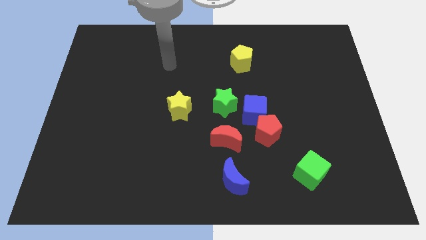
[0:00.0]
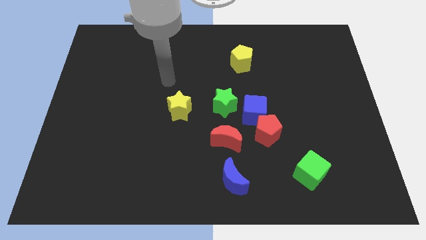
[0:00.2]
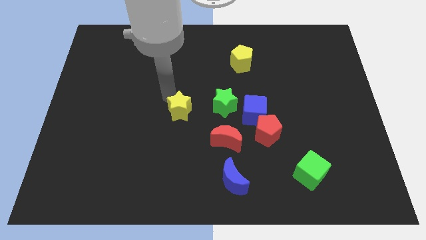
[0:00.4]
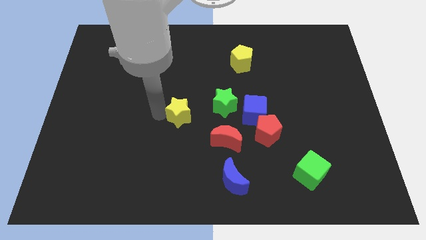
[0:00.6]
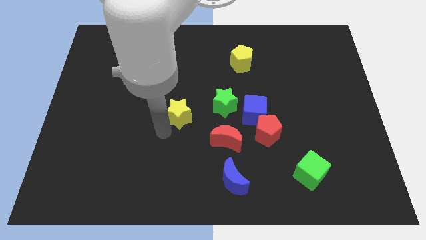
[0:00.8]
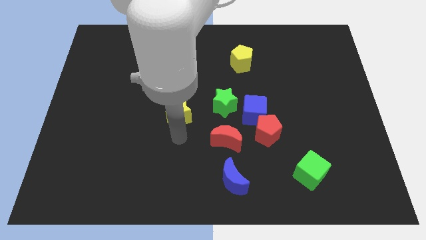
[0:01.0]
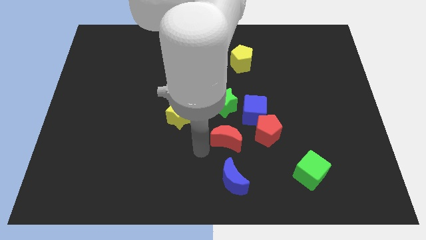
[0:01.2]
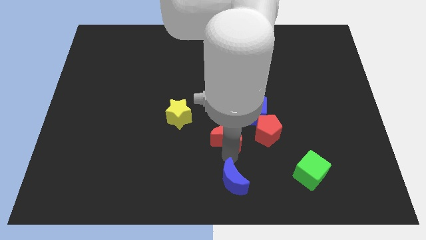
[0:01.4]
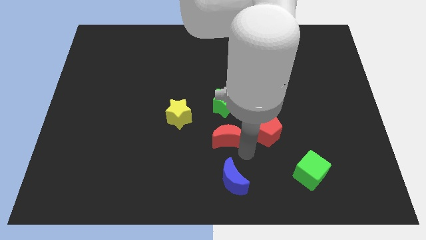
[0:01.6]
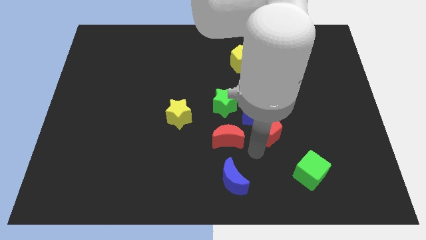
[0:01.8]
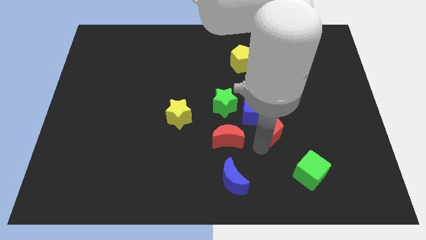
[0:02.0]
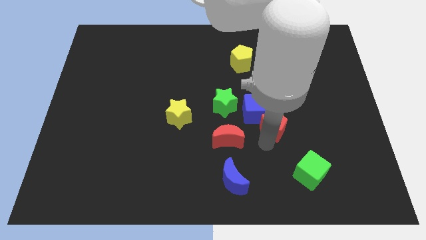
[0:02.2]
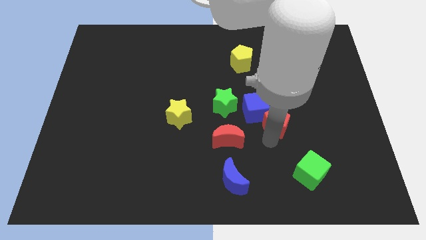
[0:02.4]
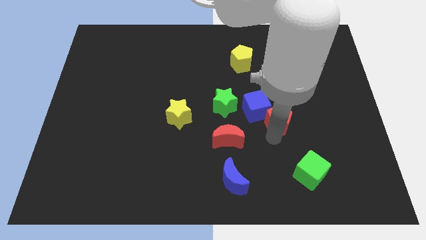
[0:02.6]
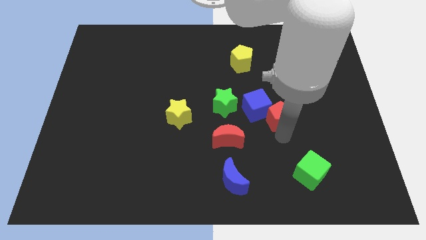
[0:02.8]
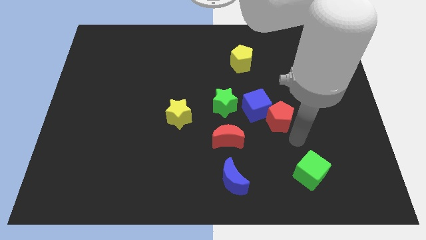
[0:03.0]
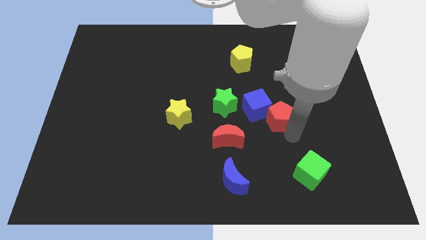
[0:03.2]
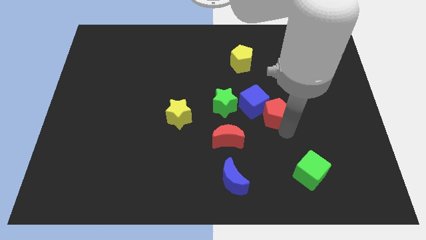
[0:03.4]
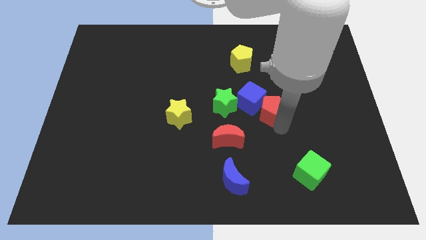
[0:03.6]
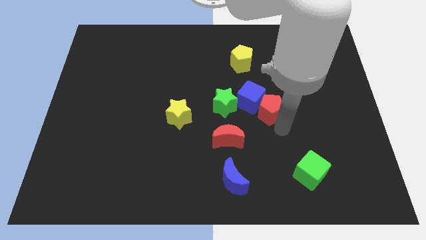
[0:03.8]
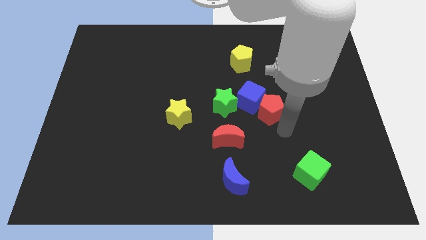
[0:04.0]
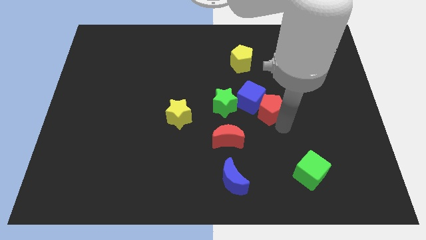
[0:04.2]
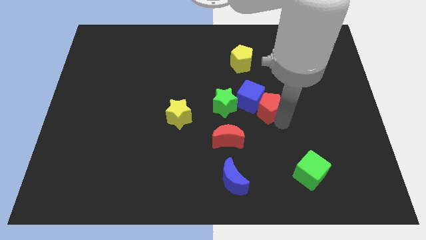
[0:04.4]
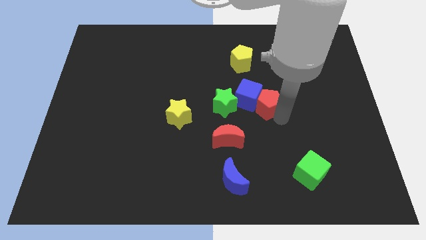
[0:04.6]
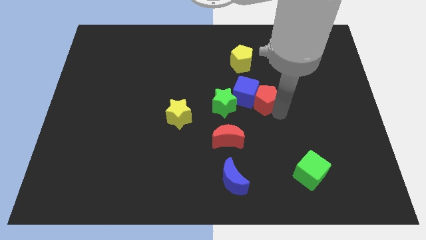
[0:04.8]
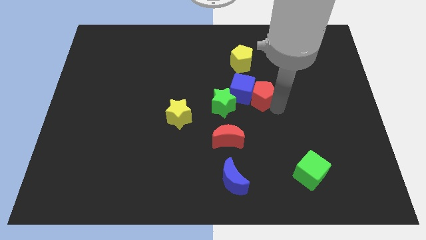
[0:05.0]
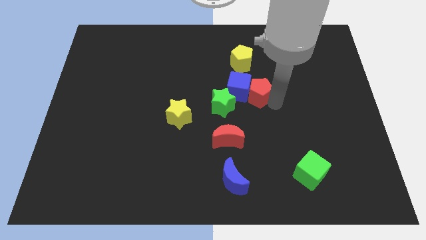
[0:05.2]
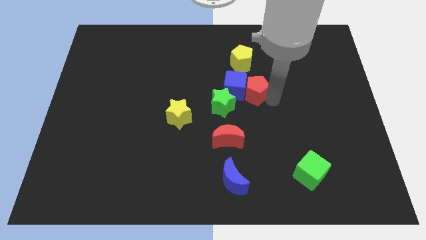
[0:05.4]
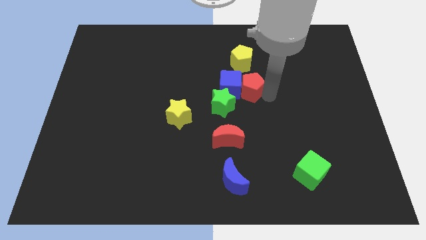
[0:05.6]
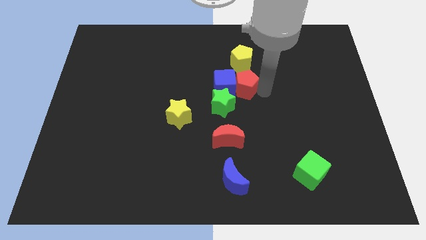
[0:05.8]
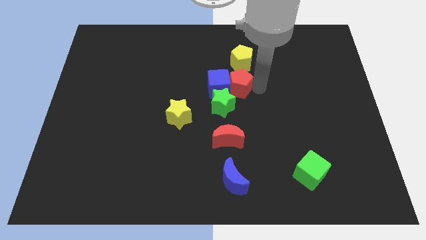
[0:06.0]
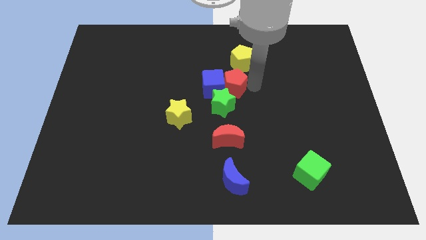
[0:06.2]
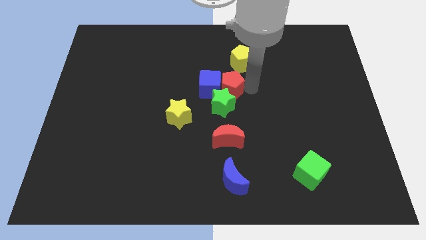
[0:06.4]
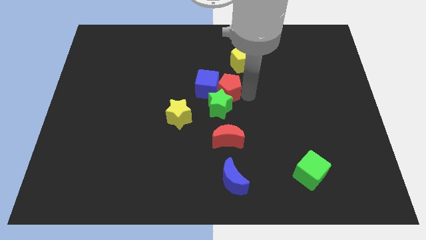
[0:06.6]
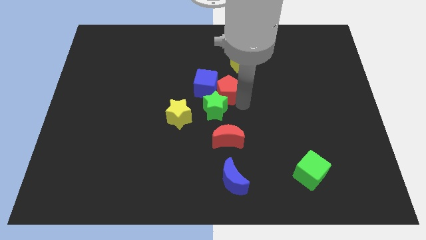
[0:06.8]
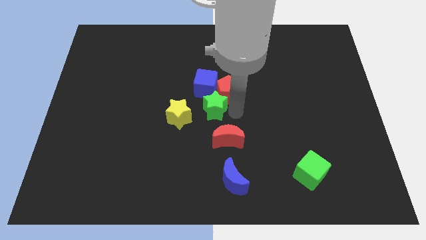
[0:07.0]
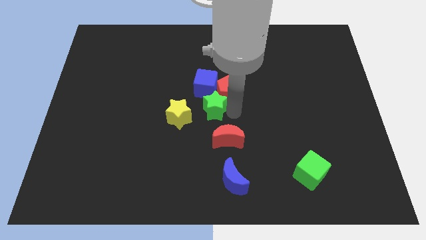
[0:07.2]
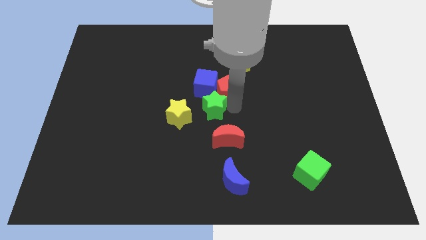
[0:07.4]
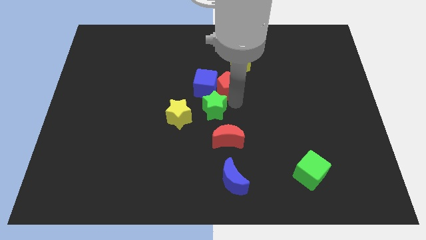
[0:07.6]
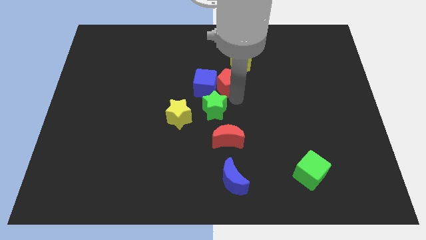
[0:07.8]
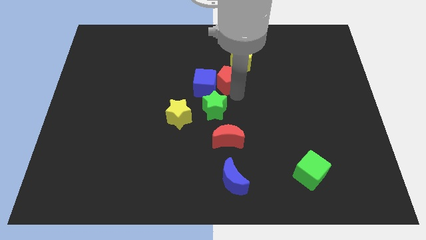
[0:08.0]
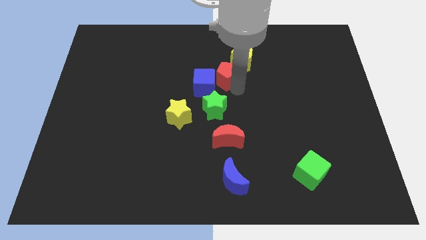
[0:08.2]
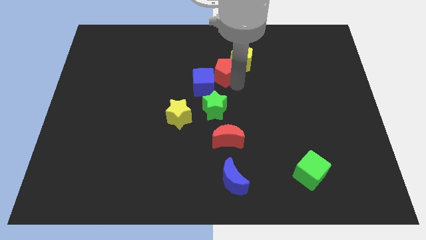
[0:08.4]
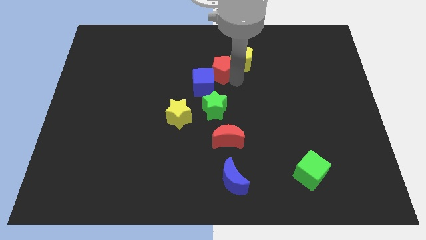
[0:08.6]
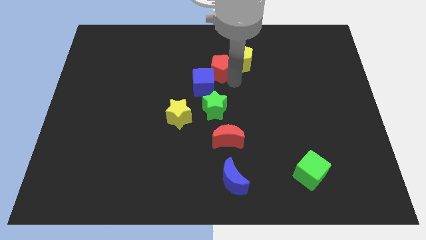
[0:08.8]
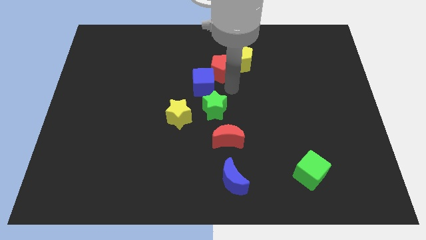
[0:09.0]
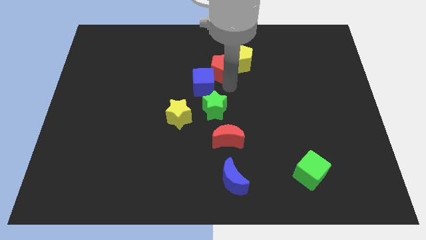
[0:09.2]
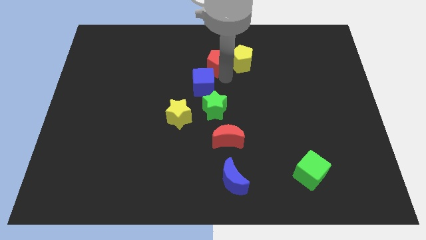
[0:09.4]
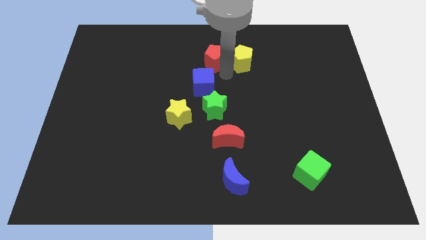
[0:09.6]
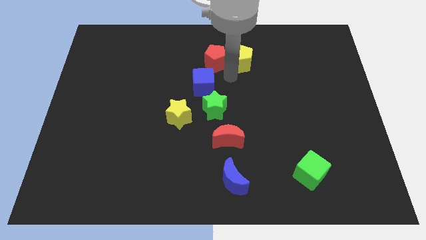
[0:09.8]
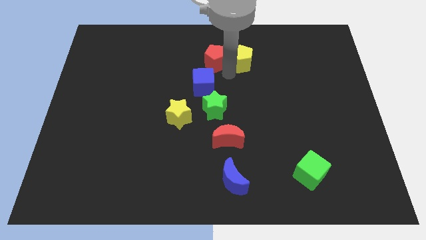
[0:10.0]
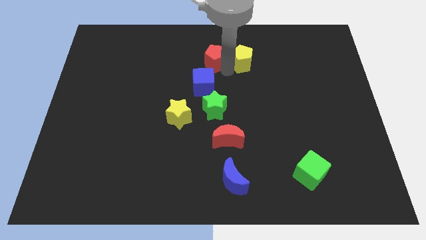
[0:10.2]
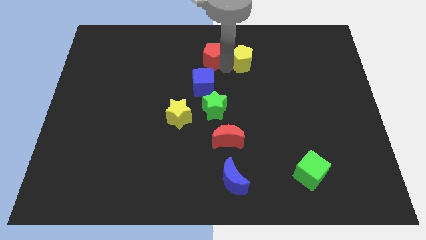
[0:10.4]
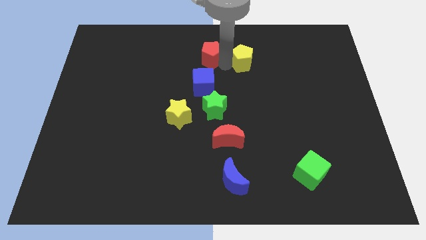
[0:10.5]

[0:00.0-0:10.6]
push the red pentagon to the towards your base

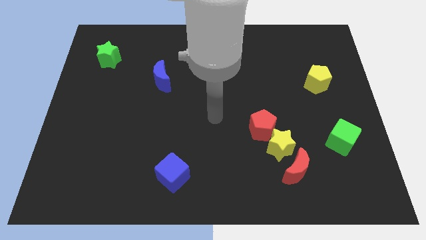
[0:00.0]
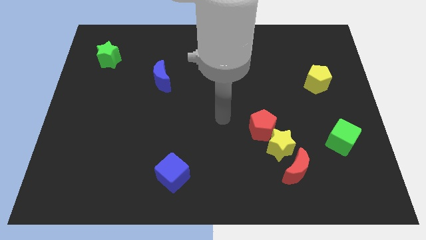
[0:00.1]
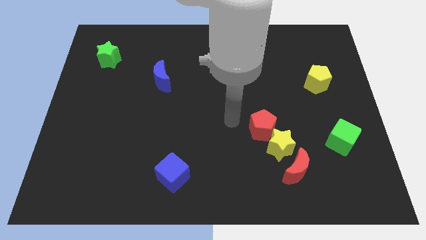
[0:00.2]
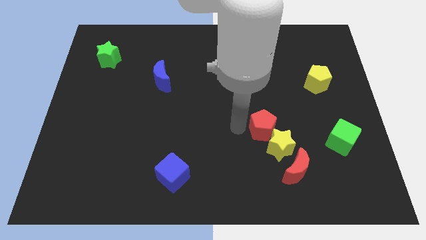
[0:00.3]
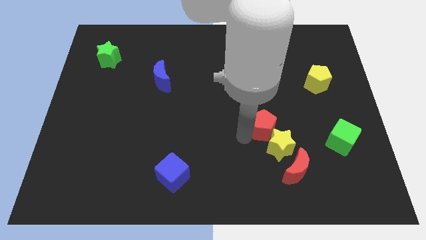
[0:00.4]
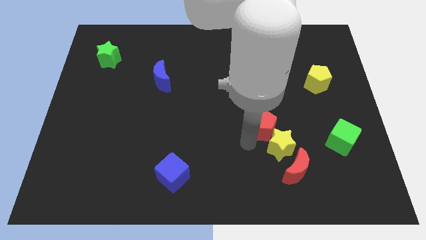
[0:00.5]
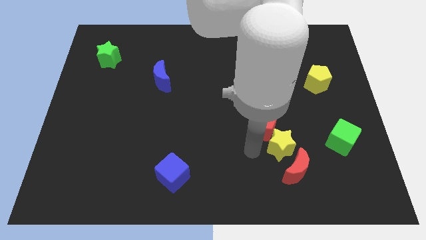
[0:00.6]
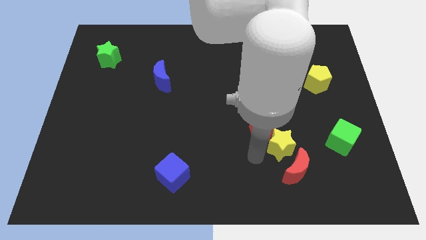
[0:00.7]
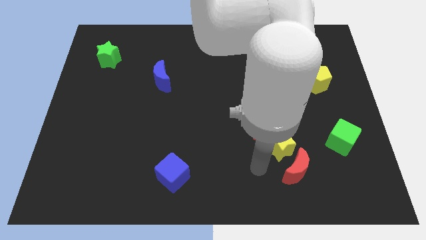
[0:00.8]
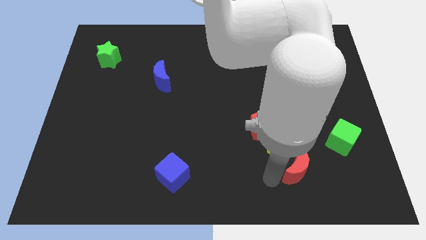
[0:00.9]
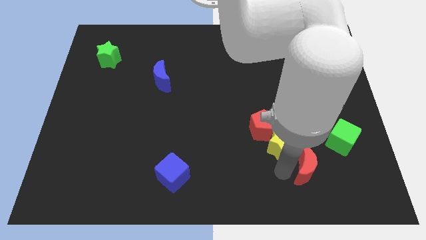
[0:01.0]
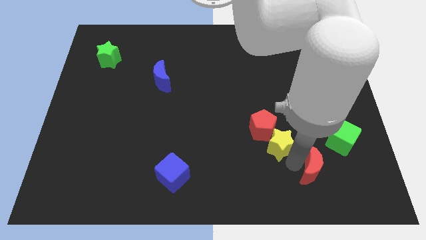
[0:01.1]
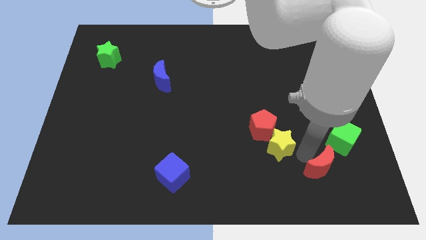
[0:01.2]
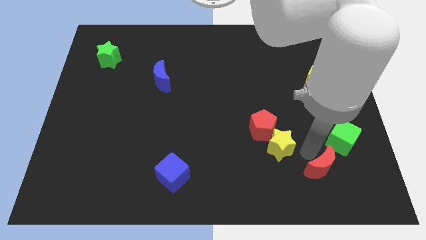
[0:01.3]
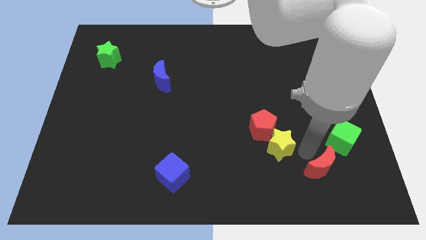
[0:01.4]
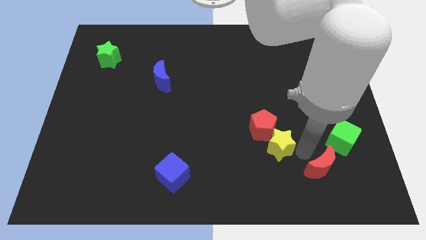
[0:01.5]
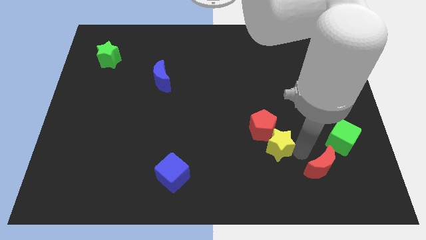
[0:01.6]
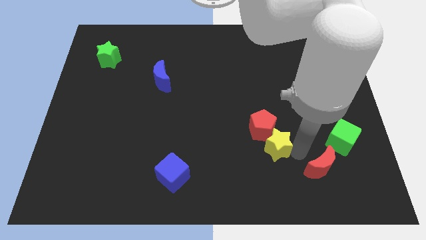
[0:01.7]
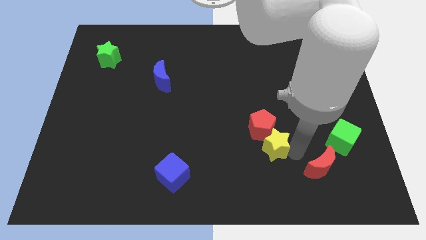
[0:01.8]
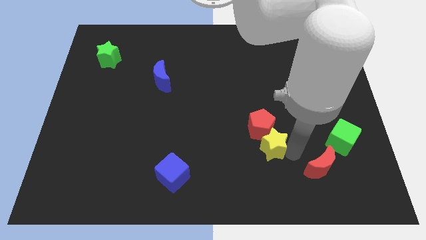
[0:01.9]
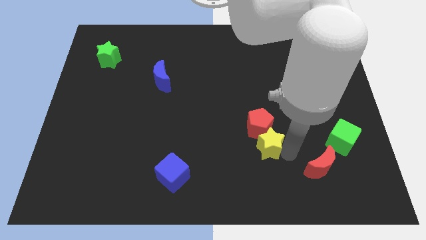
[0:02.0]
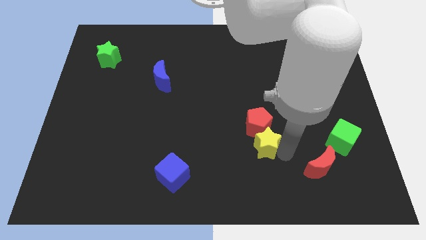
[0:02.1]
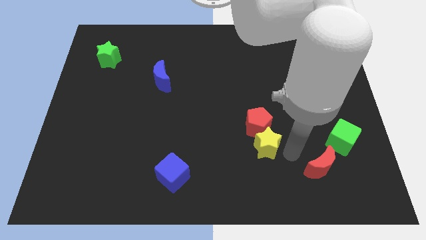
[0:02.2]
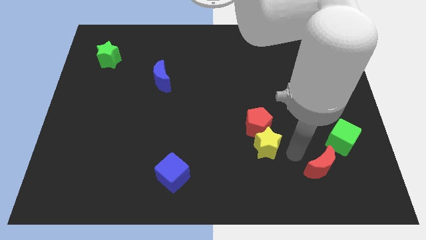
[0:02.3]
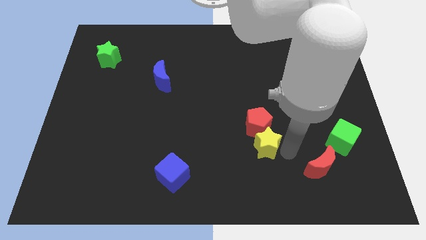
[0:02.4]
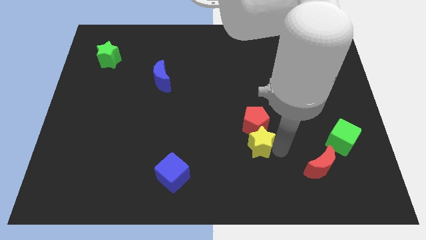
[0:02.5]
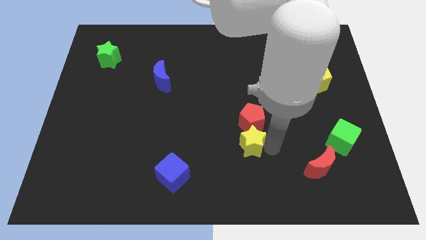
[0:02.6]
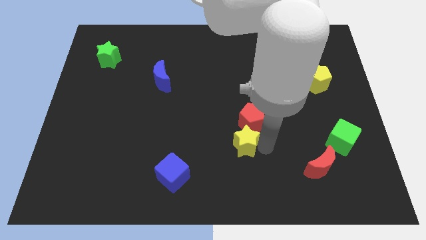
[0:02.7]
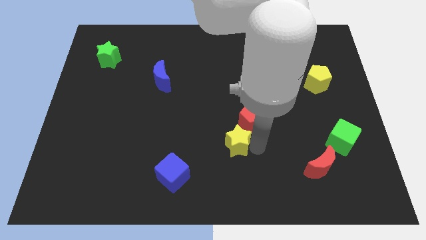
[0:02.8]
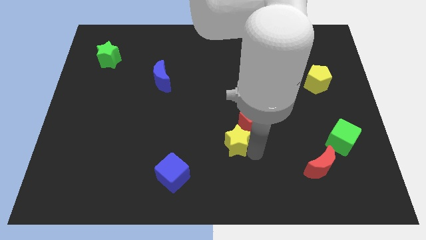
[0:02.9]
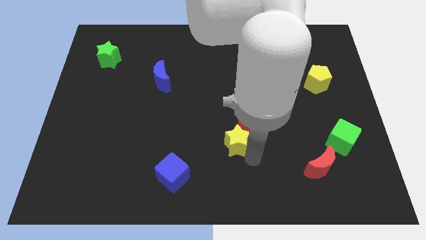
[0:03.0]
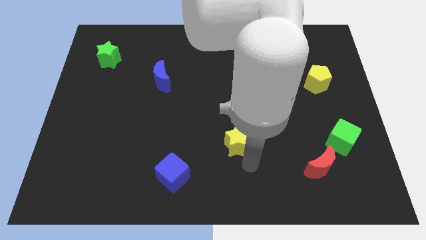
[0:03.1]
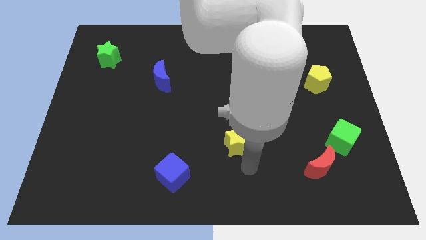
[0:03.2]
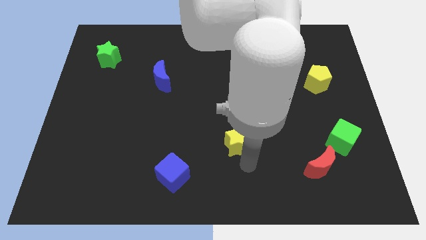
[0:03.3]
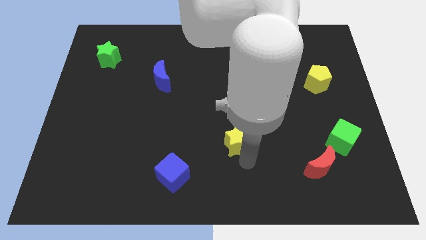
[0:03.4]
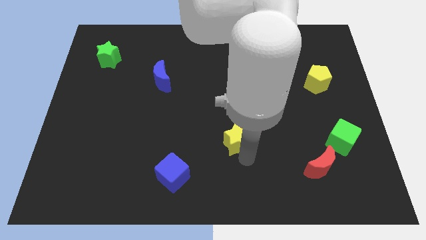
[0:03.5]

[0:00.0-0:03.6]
move the yellow star to the middle of the board
